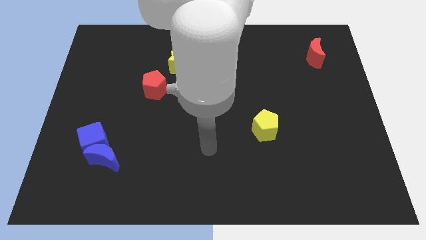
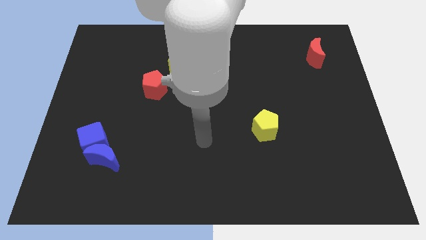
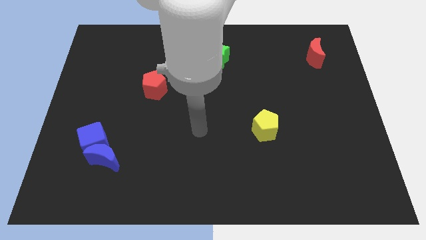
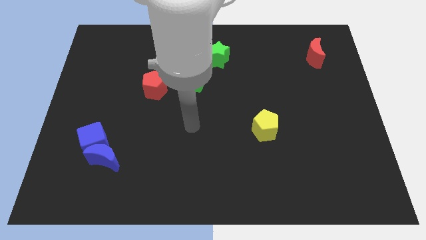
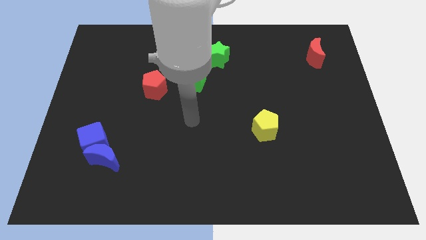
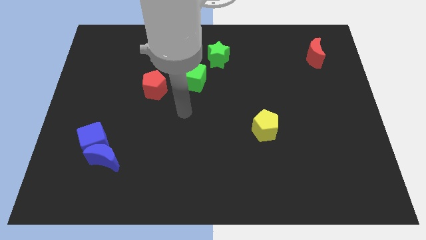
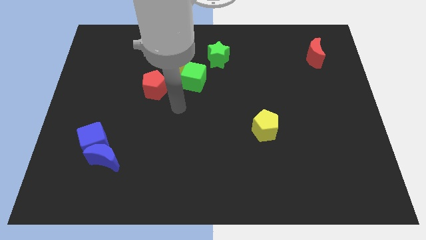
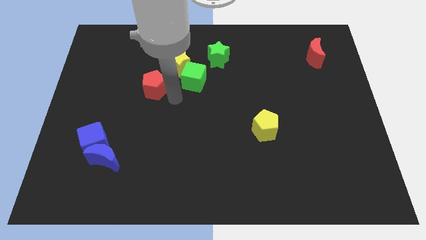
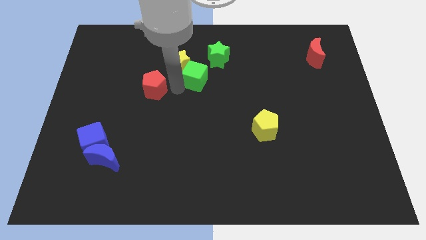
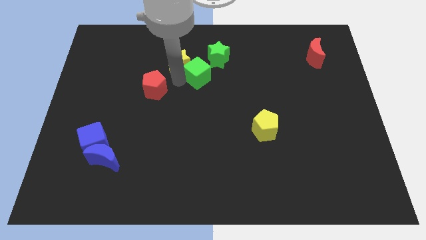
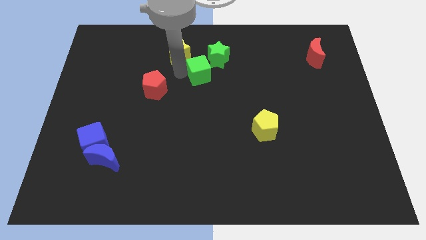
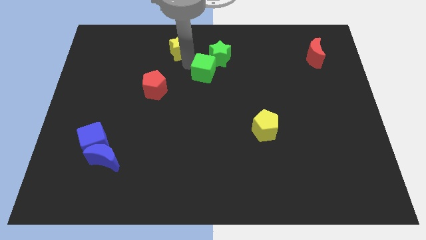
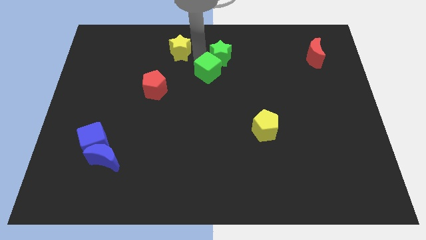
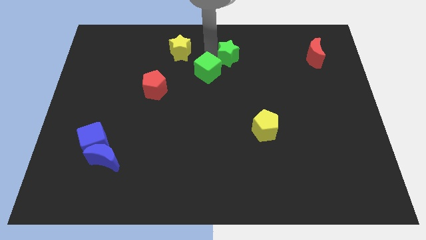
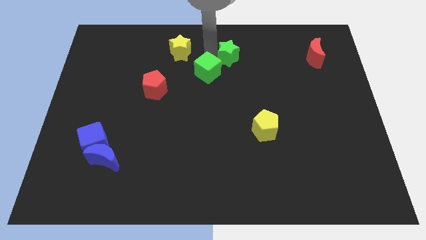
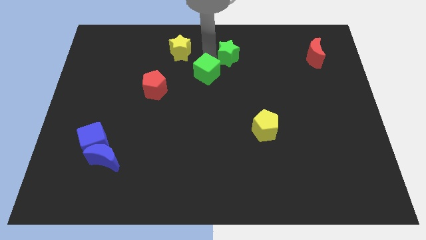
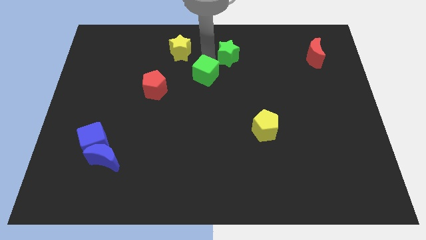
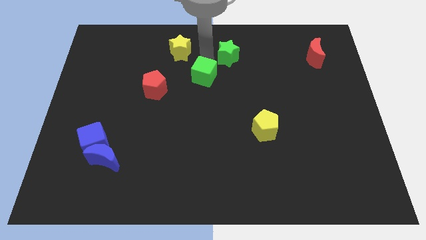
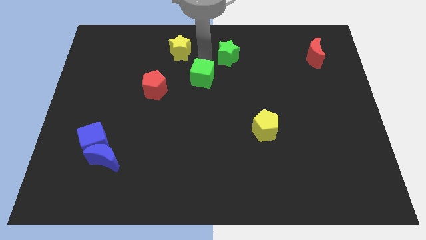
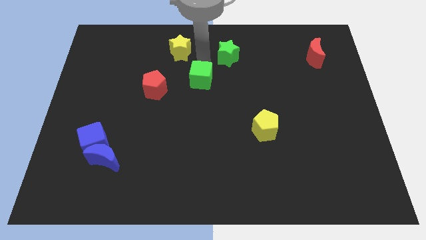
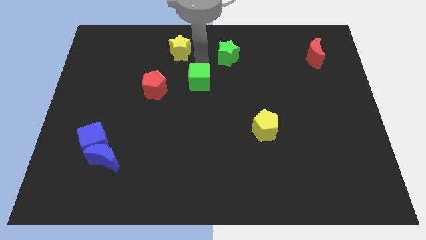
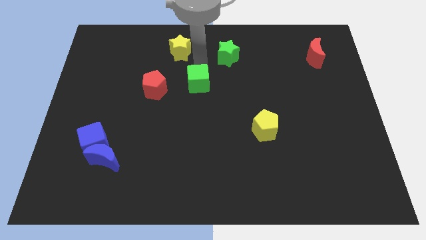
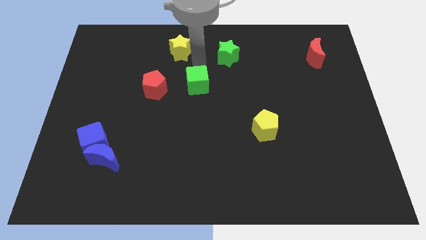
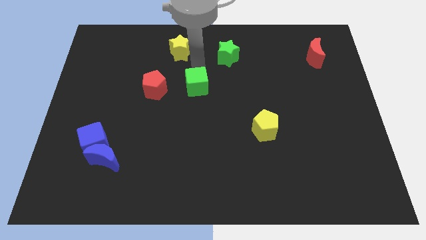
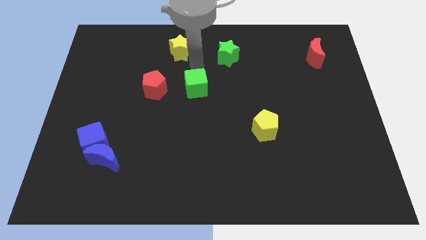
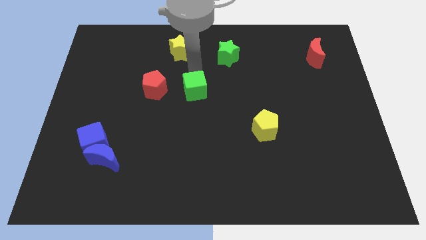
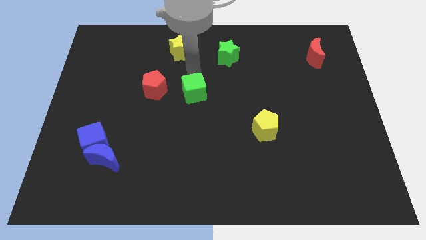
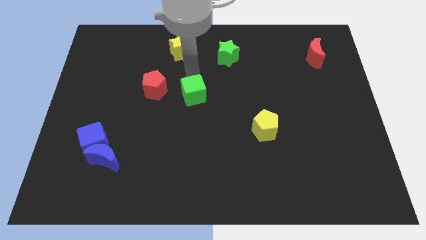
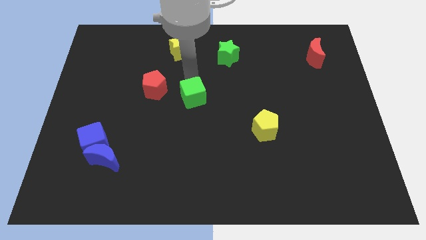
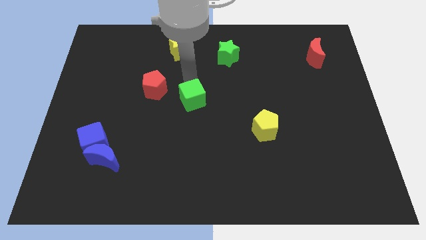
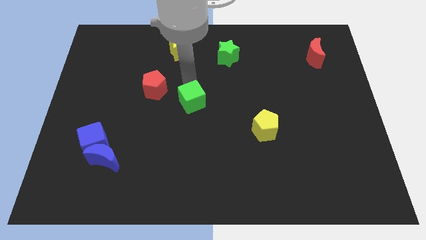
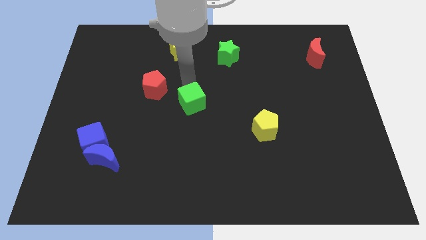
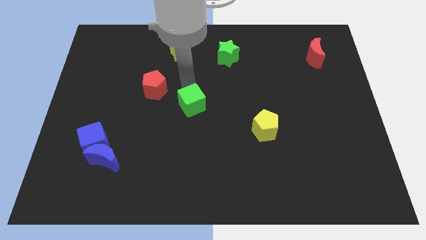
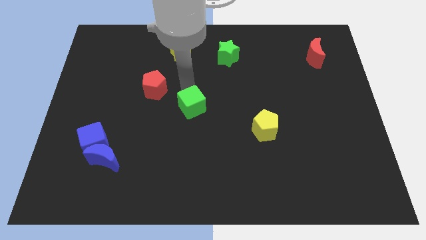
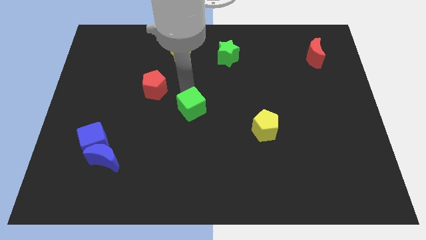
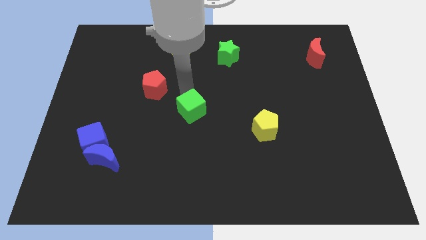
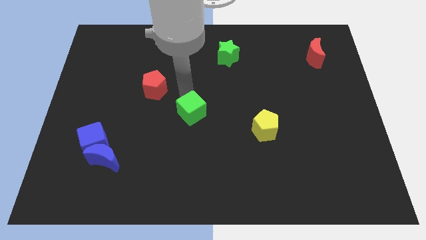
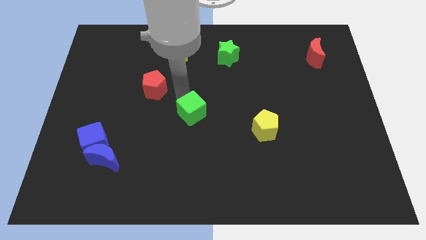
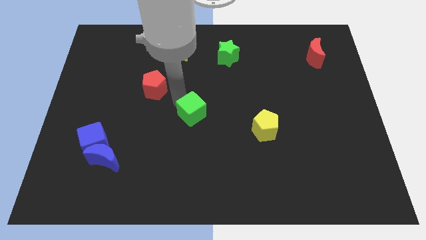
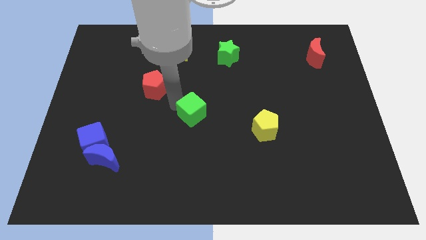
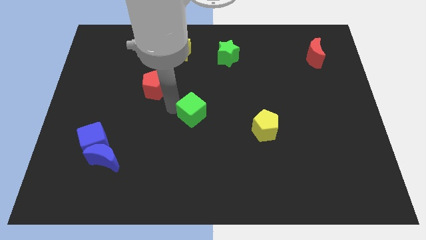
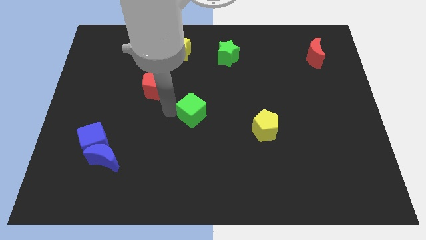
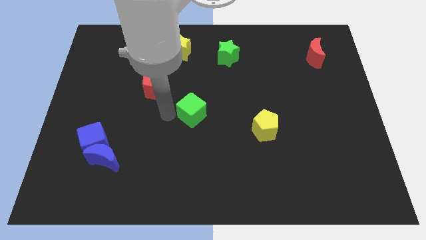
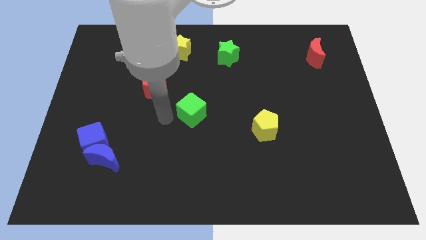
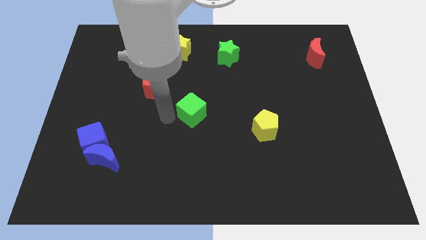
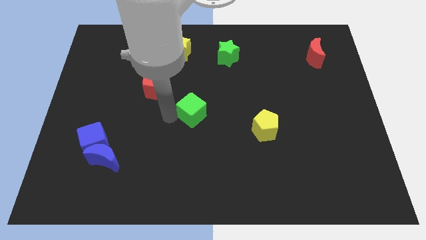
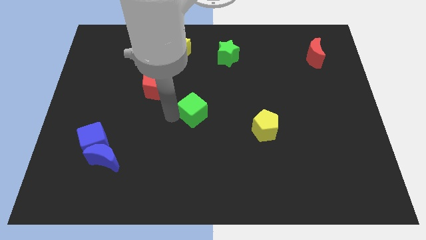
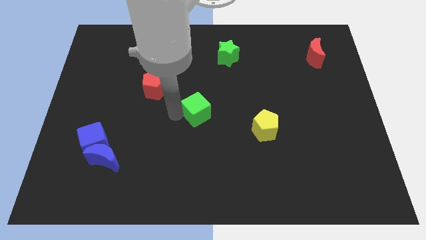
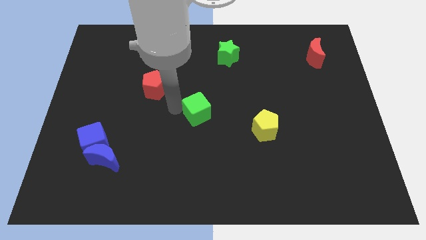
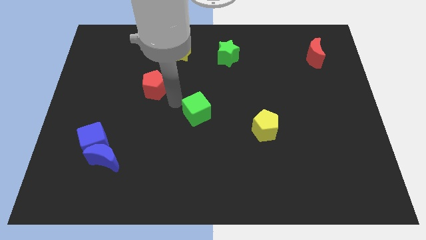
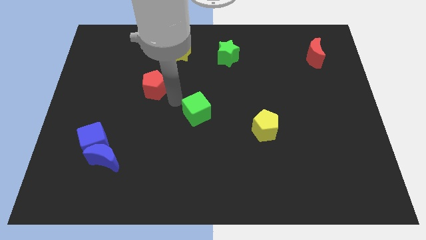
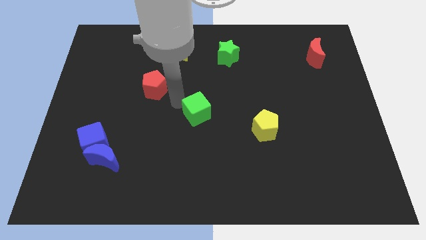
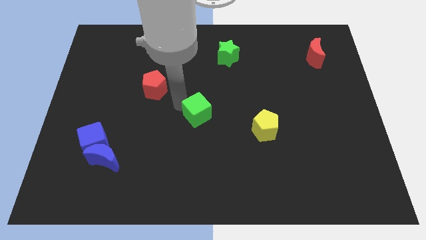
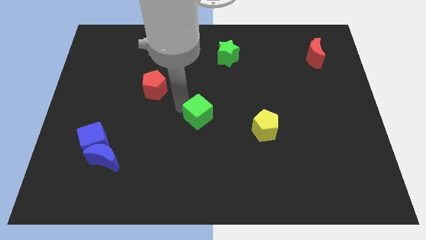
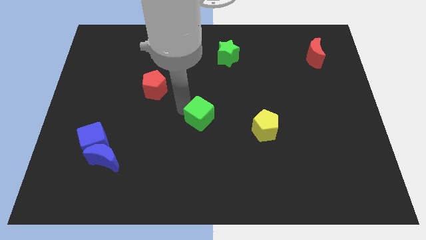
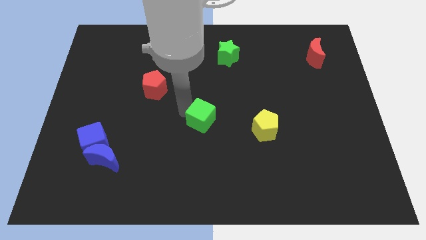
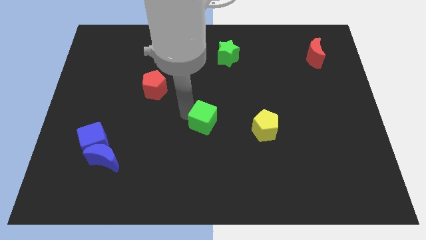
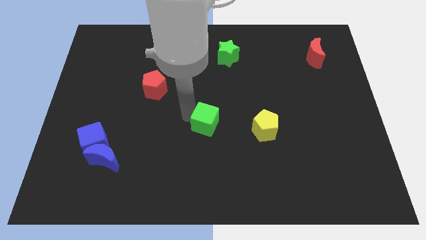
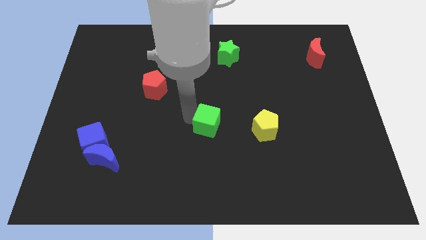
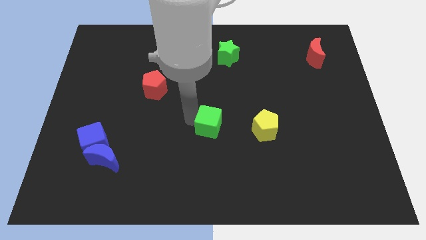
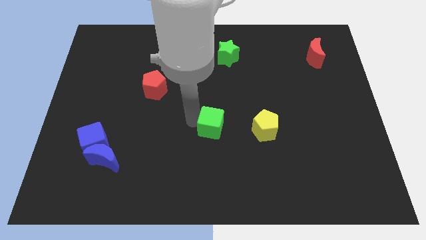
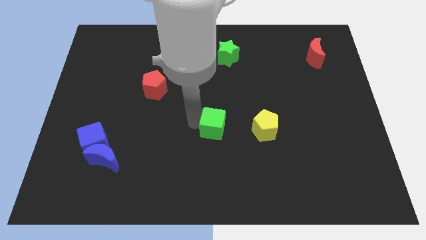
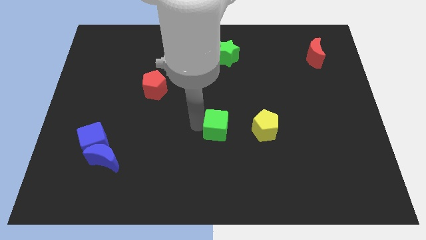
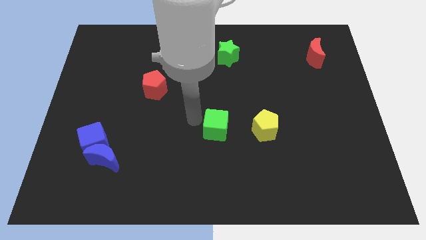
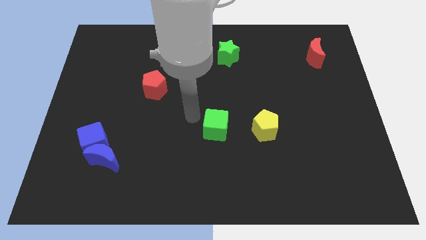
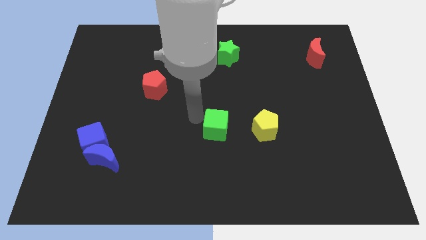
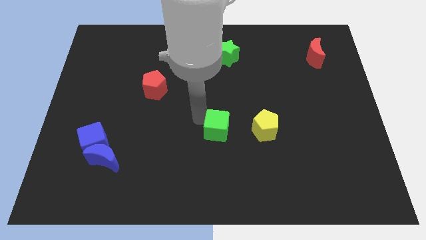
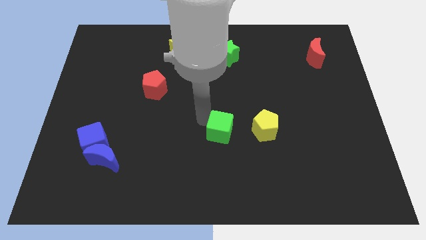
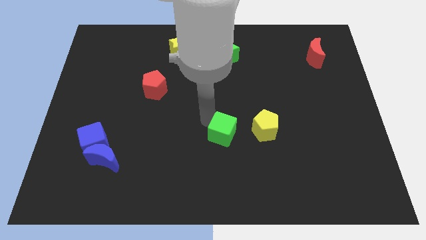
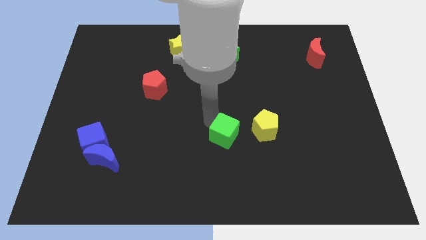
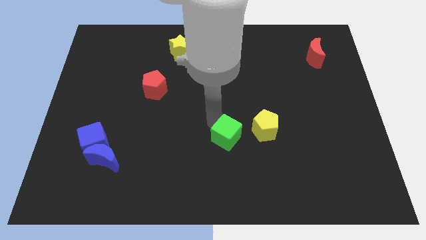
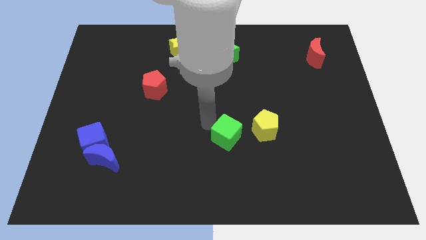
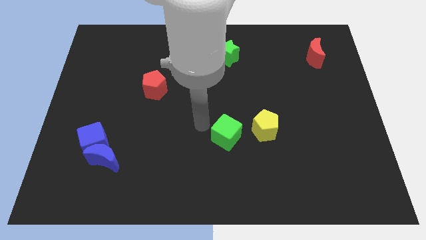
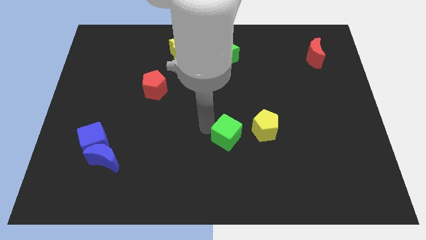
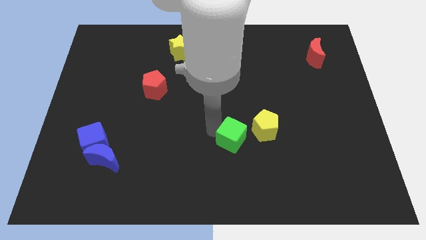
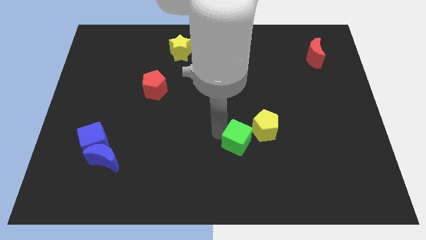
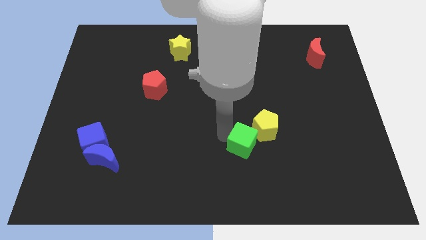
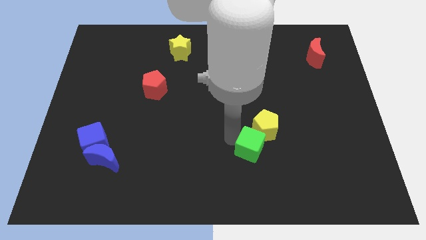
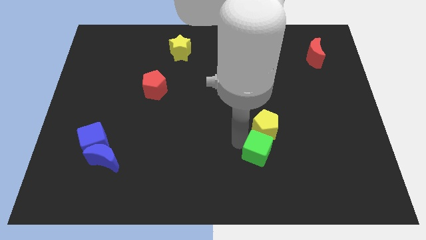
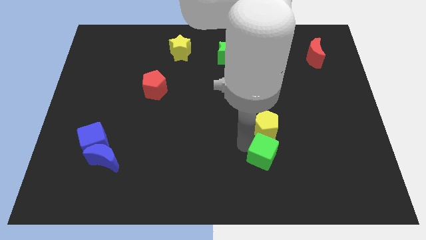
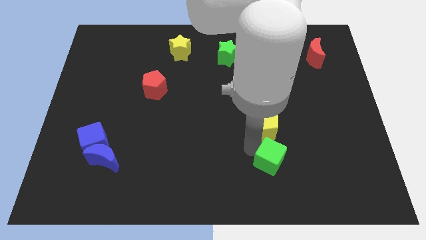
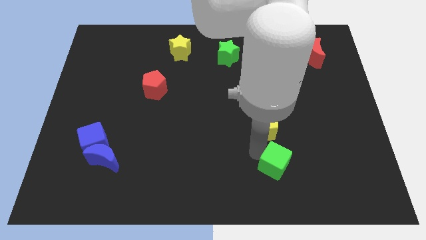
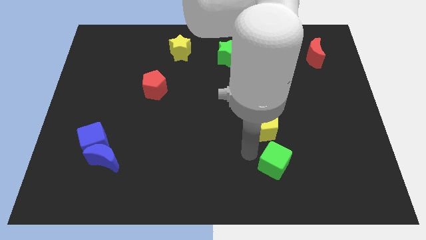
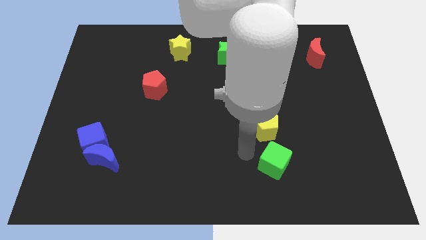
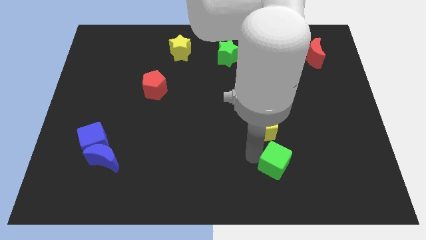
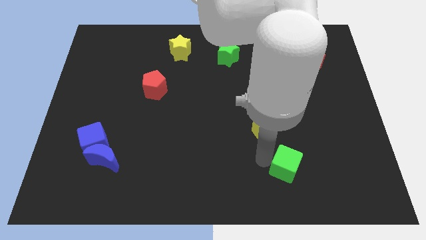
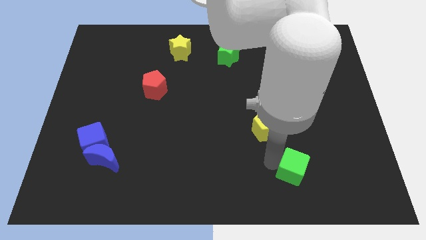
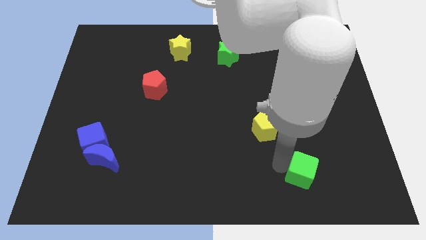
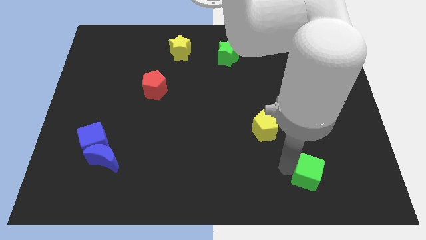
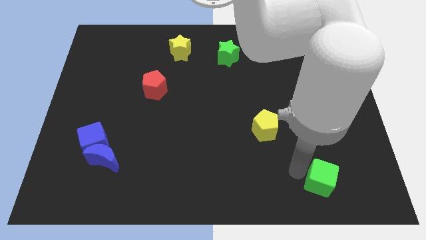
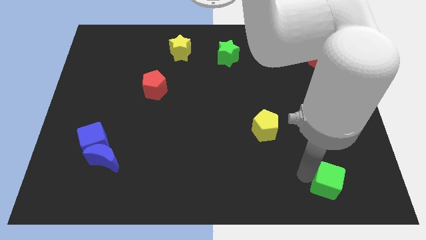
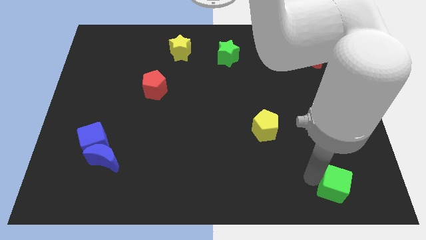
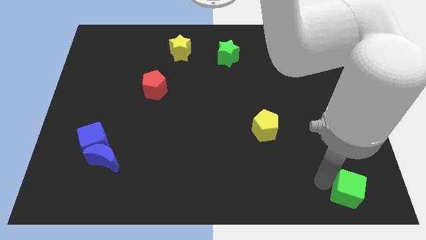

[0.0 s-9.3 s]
put the green cube to the bottom right
